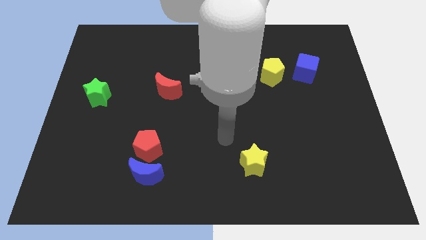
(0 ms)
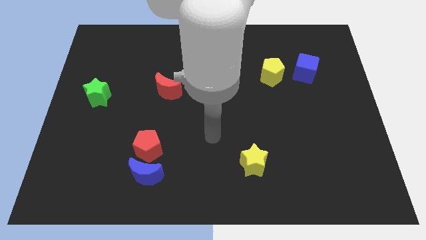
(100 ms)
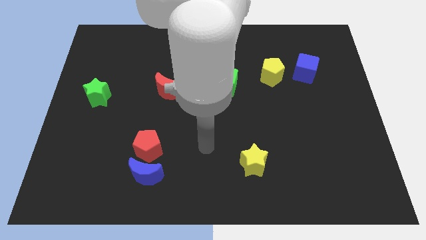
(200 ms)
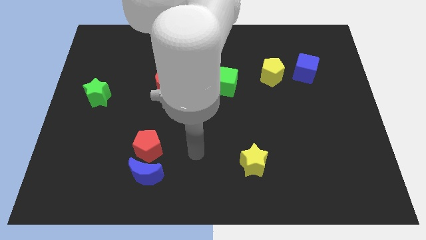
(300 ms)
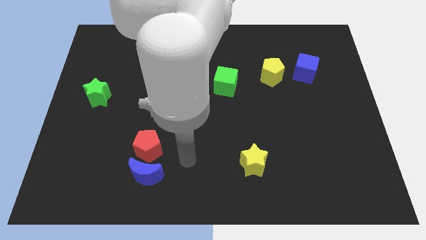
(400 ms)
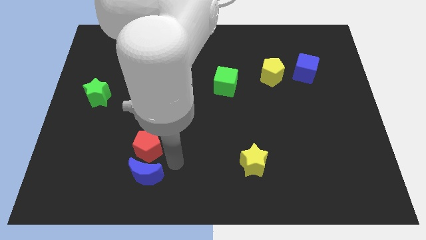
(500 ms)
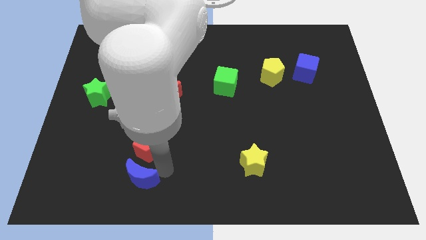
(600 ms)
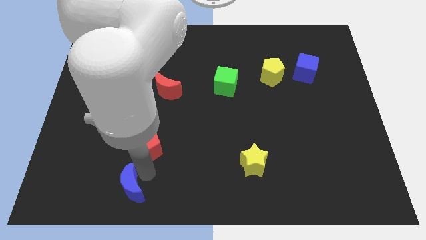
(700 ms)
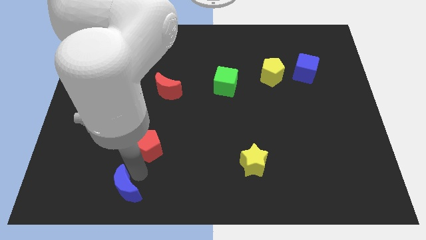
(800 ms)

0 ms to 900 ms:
separate the red pentagon from the blue moon

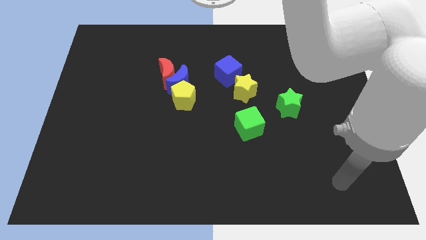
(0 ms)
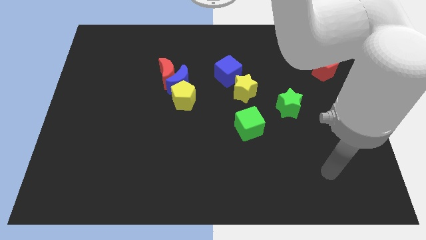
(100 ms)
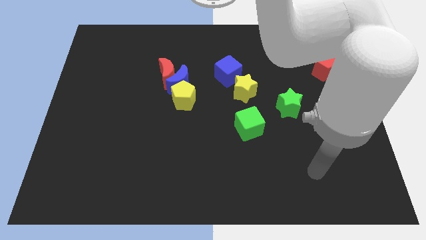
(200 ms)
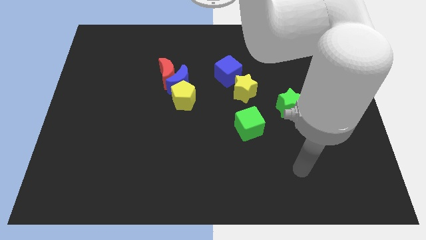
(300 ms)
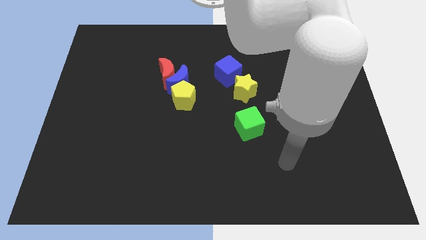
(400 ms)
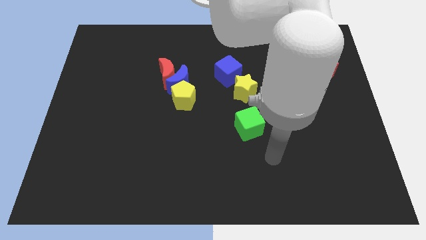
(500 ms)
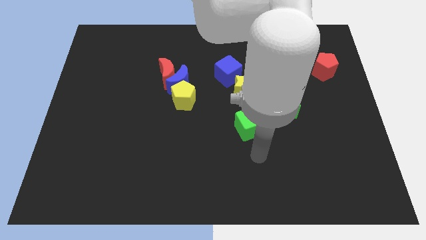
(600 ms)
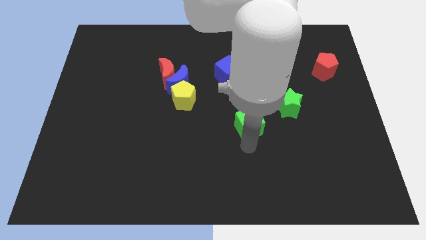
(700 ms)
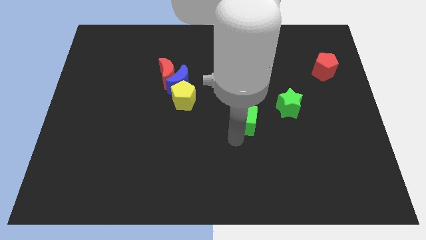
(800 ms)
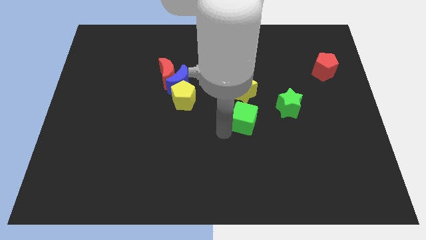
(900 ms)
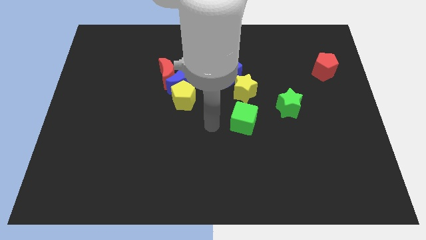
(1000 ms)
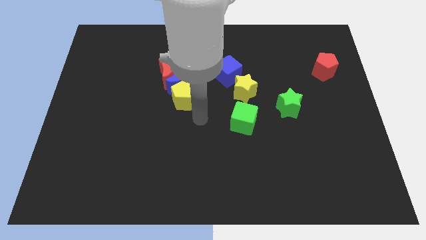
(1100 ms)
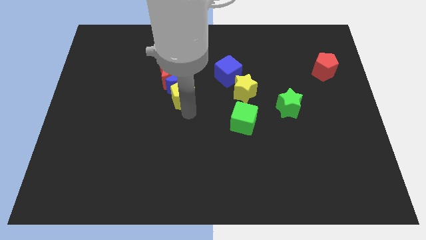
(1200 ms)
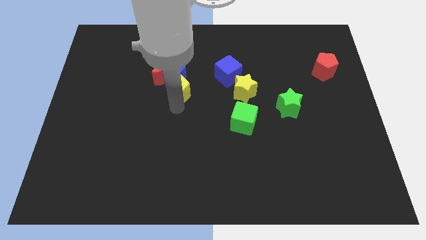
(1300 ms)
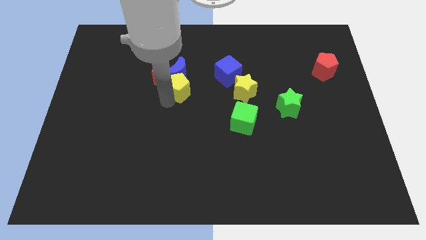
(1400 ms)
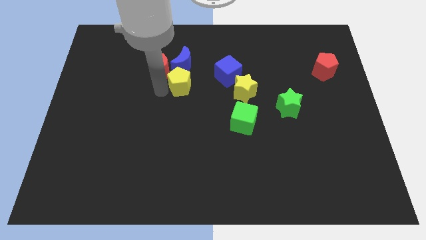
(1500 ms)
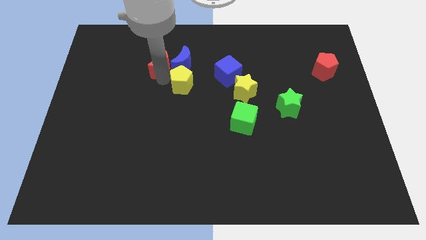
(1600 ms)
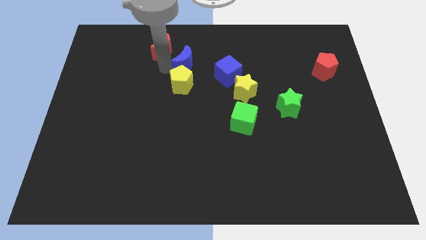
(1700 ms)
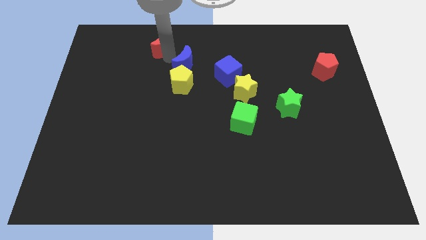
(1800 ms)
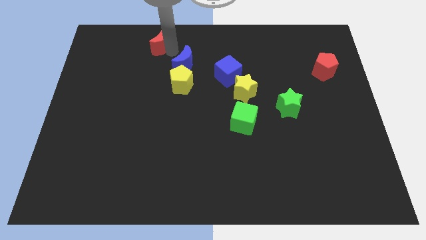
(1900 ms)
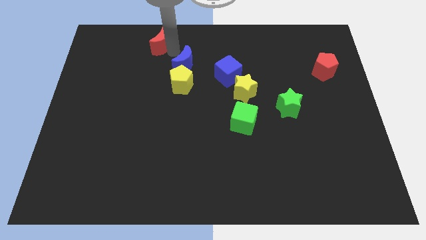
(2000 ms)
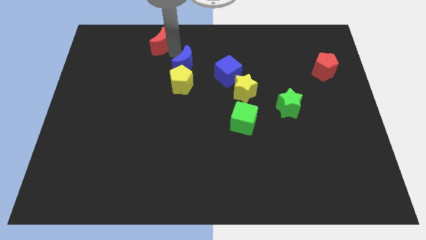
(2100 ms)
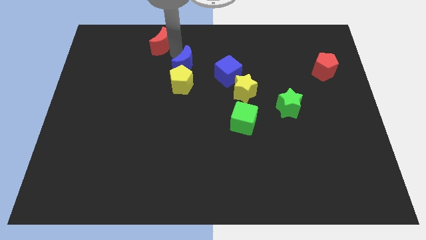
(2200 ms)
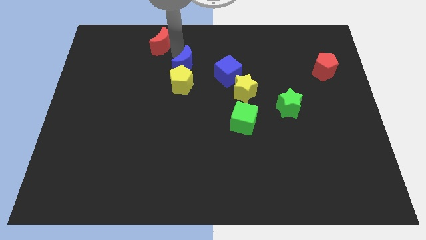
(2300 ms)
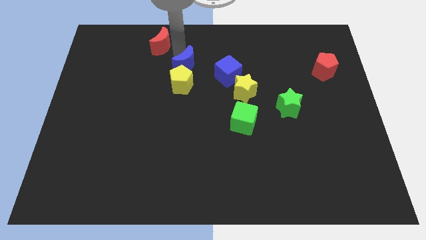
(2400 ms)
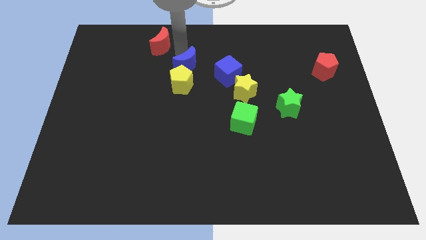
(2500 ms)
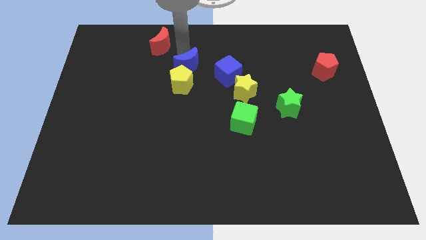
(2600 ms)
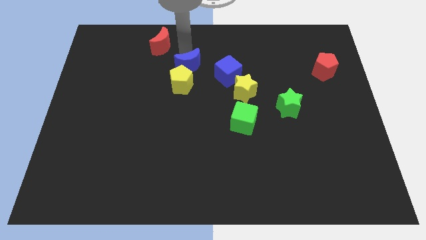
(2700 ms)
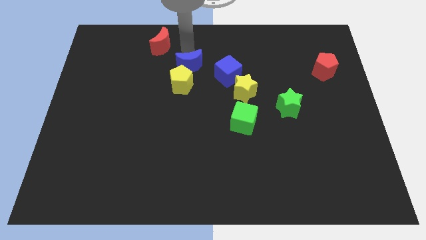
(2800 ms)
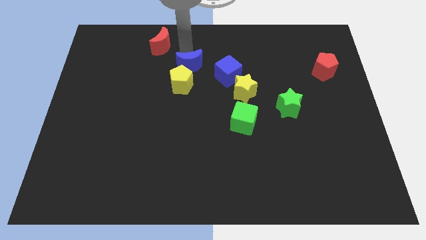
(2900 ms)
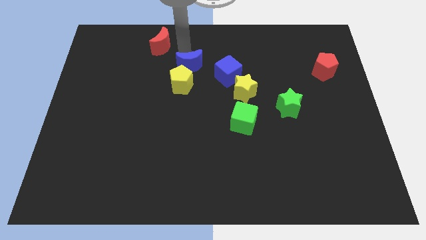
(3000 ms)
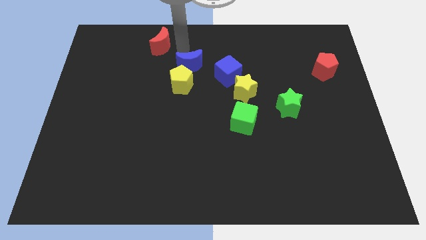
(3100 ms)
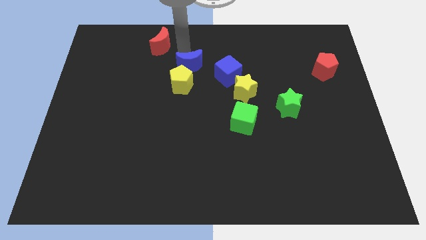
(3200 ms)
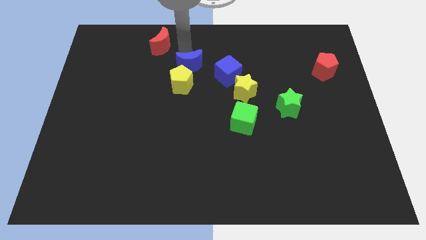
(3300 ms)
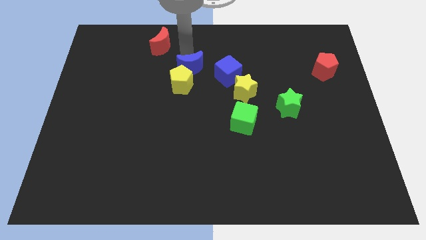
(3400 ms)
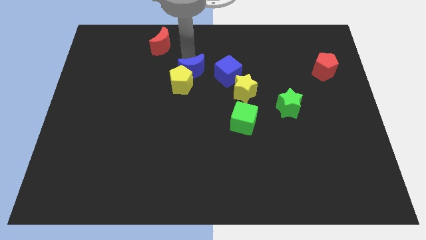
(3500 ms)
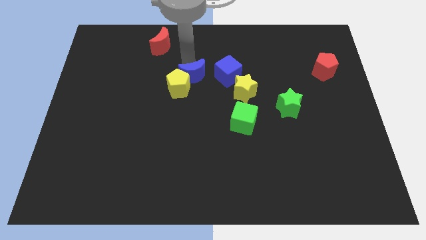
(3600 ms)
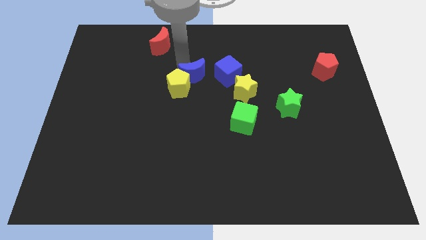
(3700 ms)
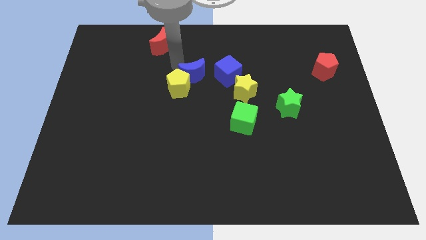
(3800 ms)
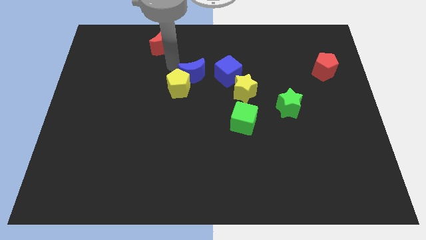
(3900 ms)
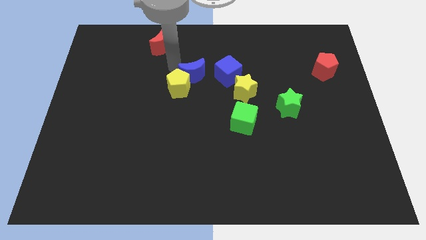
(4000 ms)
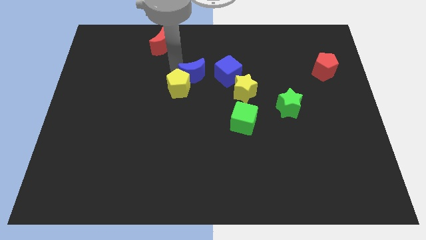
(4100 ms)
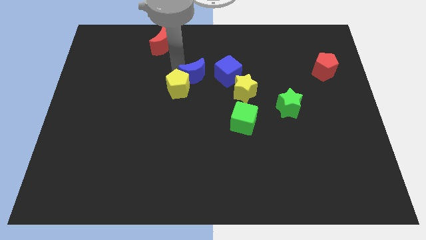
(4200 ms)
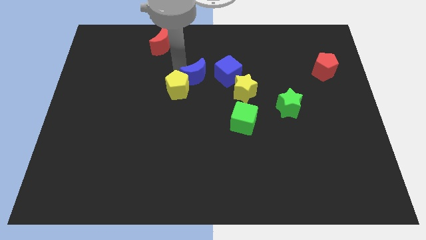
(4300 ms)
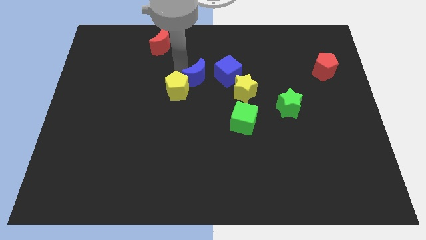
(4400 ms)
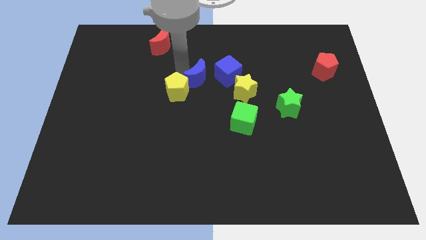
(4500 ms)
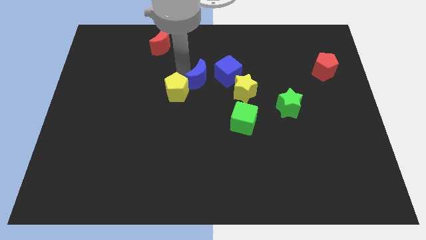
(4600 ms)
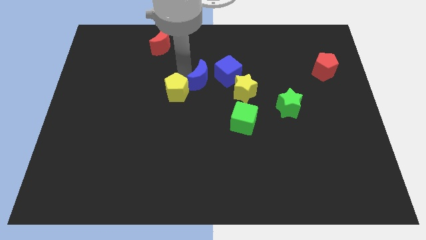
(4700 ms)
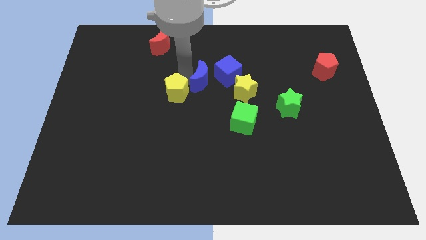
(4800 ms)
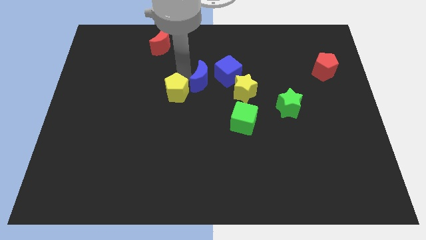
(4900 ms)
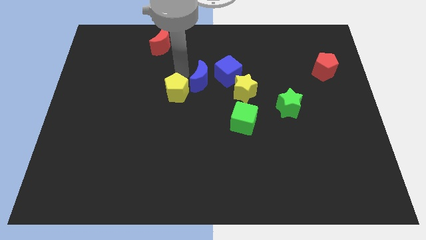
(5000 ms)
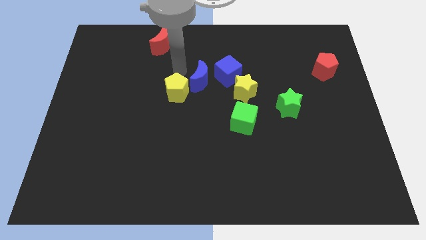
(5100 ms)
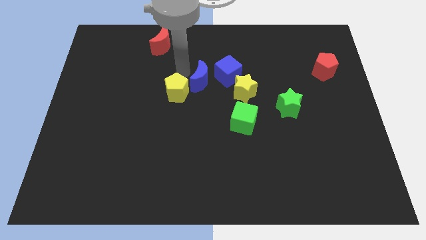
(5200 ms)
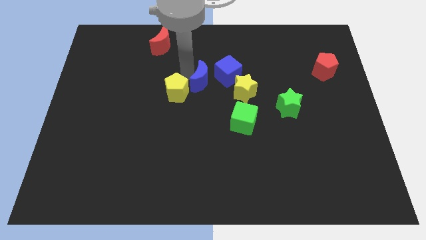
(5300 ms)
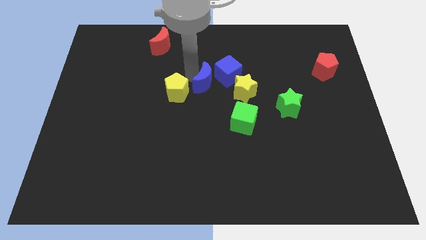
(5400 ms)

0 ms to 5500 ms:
move the blue moon away from the red moon and yellow pentagon

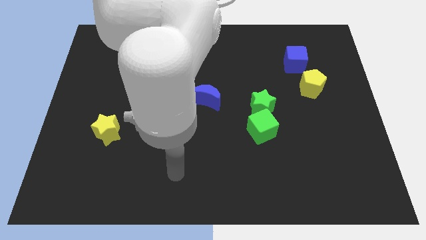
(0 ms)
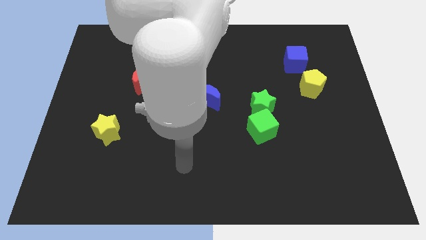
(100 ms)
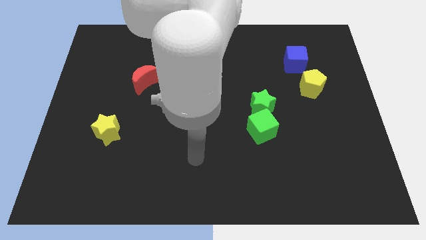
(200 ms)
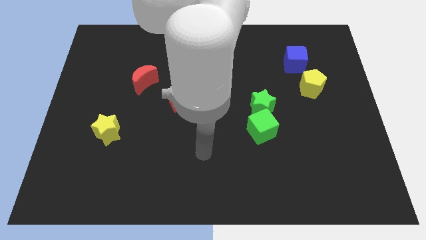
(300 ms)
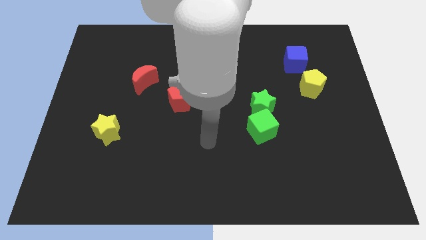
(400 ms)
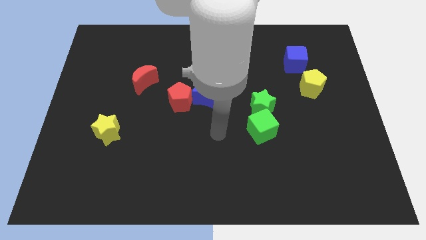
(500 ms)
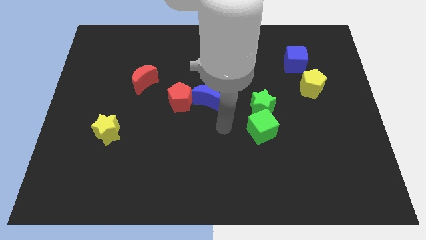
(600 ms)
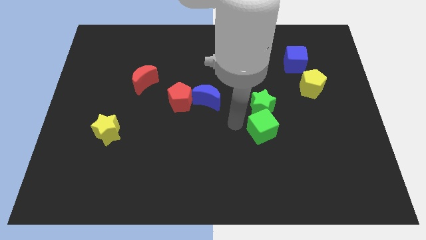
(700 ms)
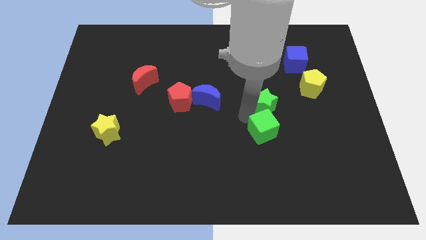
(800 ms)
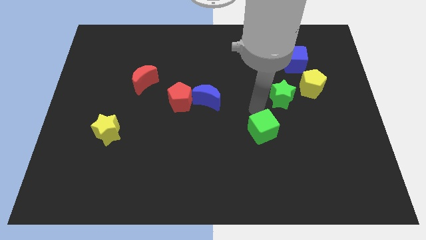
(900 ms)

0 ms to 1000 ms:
move the green cube away from the green star

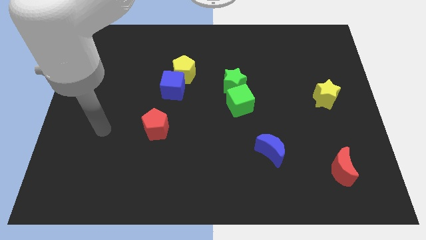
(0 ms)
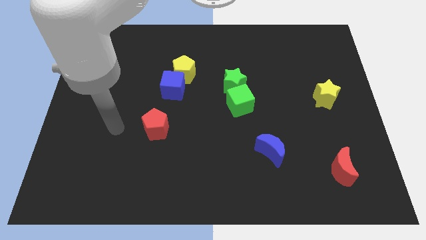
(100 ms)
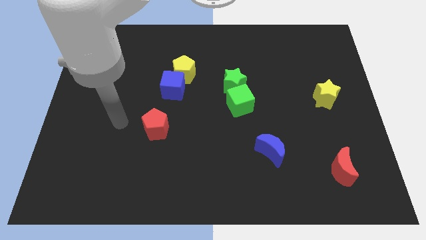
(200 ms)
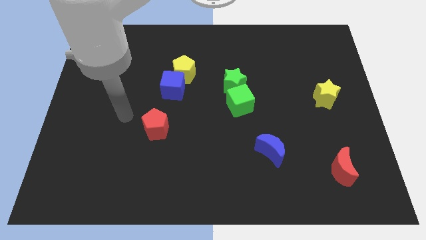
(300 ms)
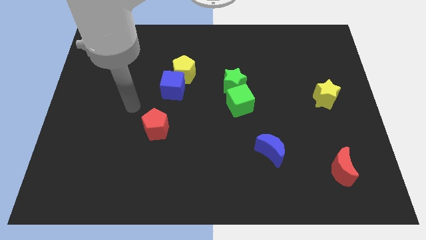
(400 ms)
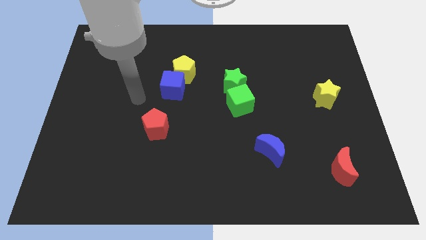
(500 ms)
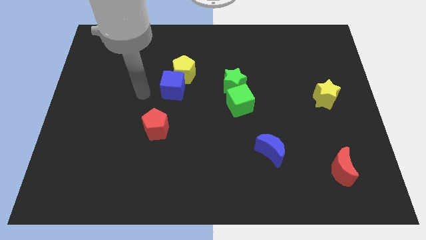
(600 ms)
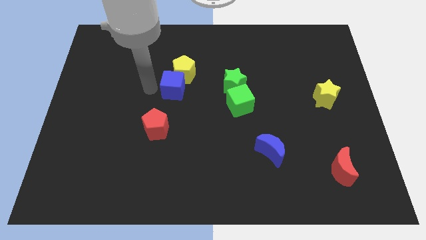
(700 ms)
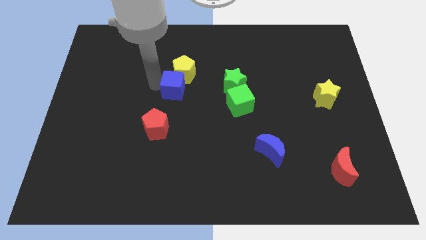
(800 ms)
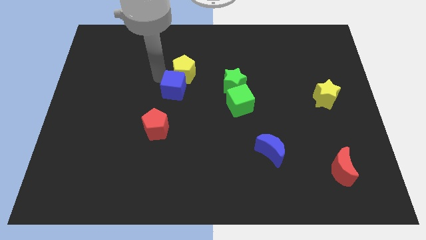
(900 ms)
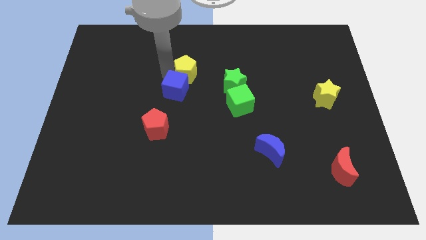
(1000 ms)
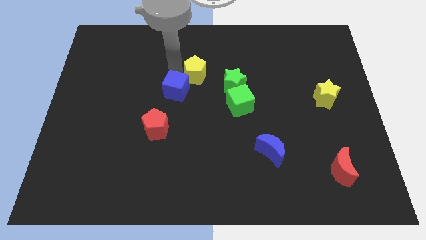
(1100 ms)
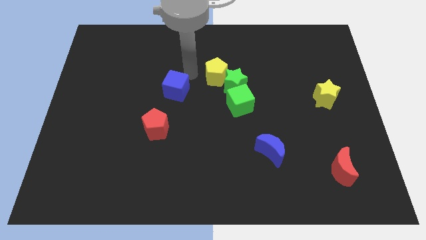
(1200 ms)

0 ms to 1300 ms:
pull the blue cube apart from the yellow pentagon

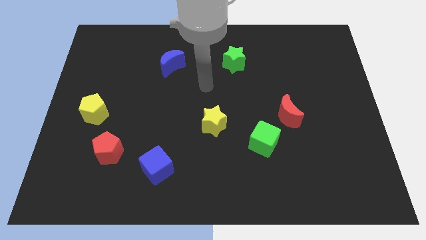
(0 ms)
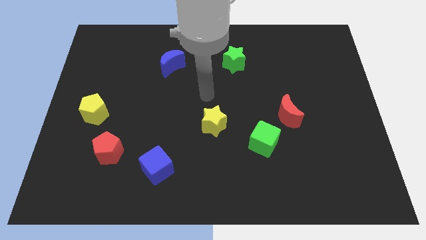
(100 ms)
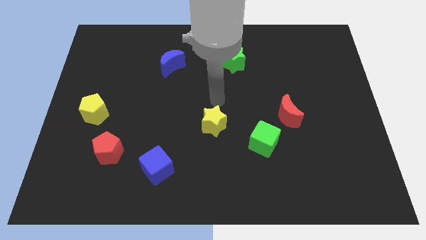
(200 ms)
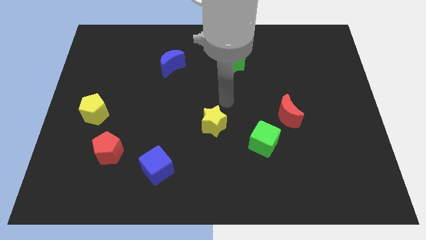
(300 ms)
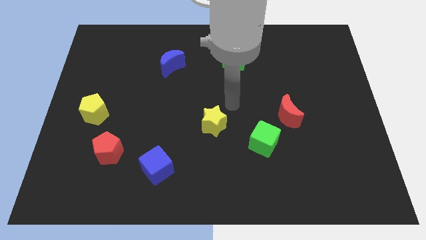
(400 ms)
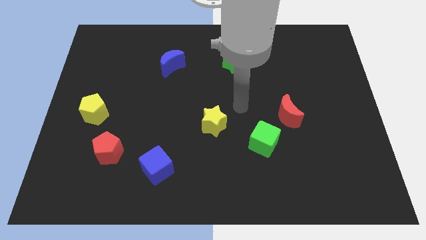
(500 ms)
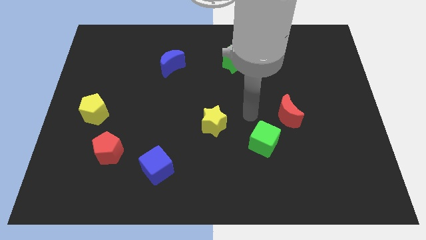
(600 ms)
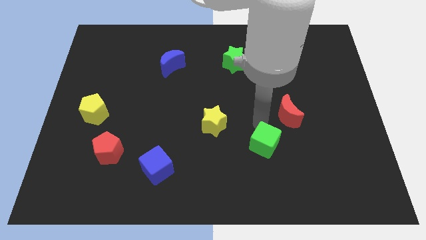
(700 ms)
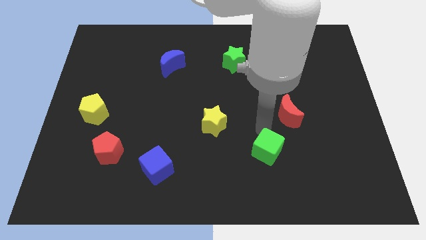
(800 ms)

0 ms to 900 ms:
separate the red moon from the green cube
